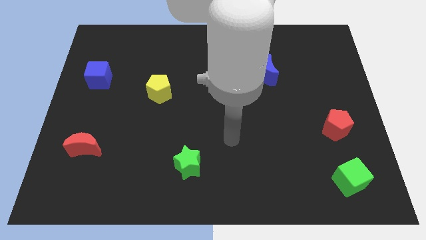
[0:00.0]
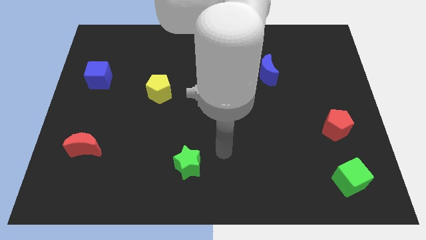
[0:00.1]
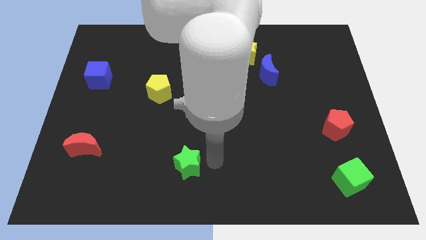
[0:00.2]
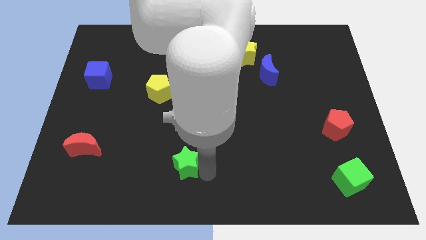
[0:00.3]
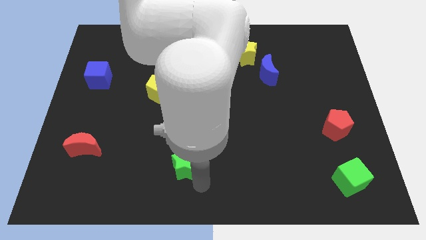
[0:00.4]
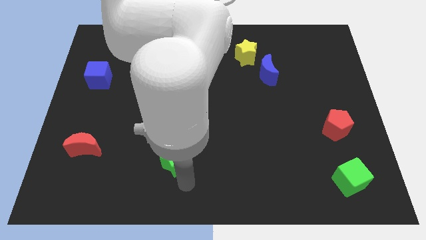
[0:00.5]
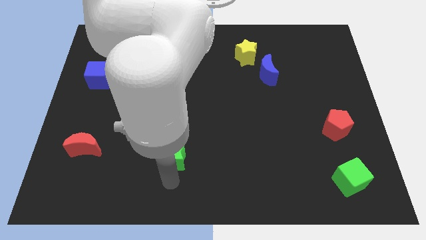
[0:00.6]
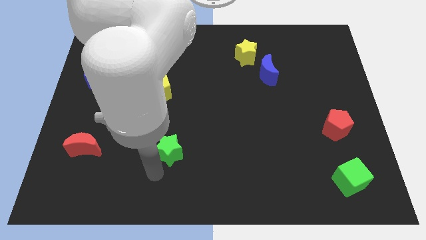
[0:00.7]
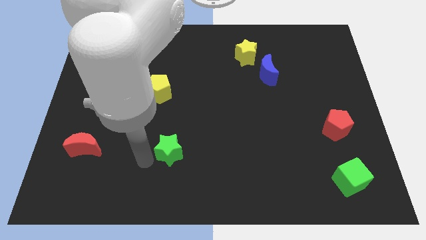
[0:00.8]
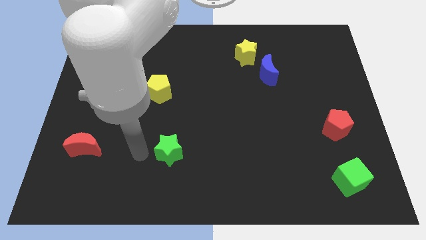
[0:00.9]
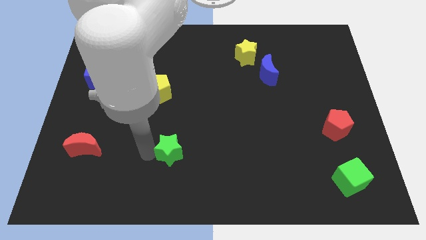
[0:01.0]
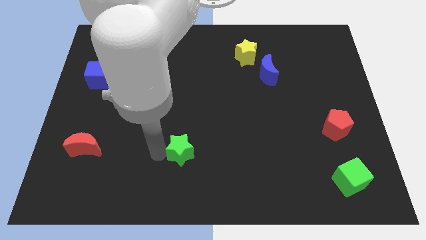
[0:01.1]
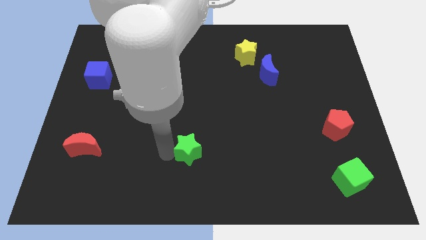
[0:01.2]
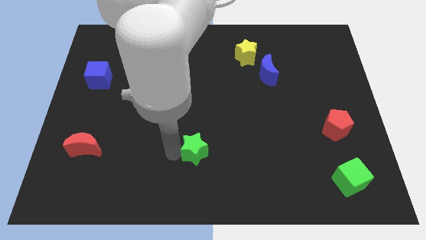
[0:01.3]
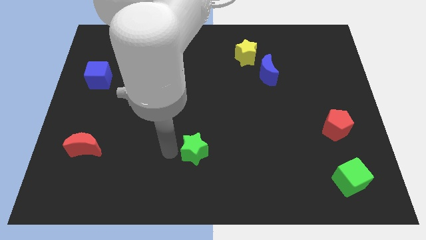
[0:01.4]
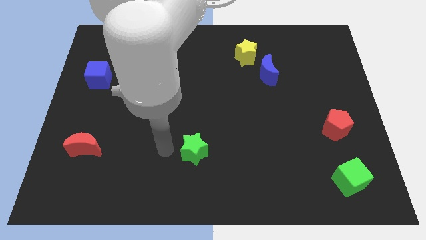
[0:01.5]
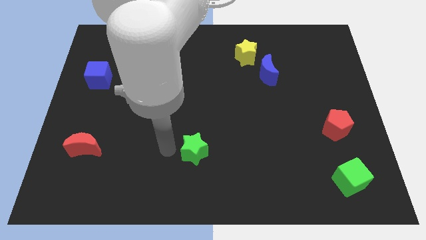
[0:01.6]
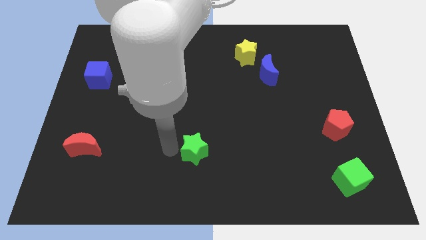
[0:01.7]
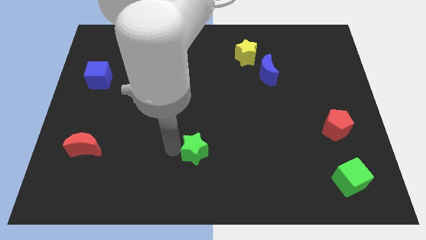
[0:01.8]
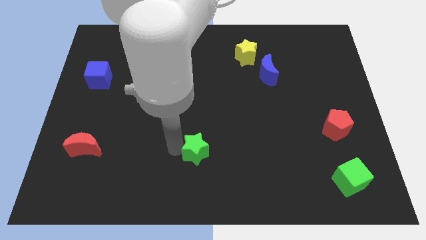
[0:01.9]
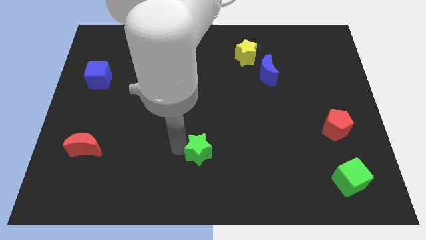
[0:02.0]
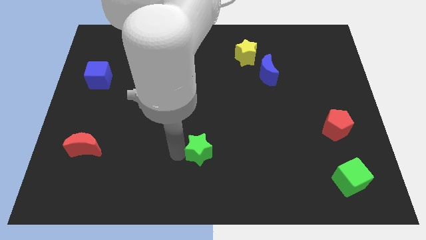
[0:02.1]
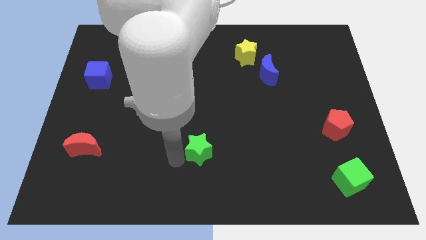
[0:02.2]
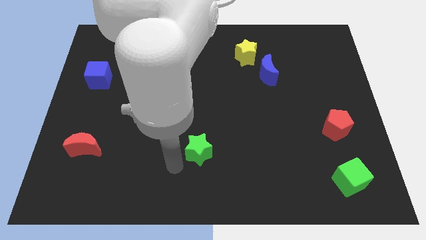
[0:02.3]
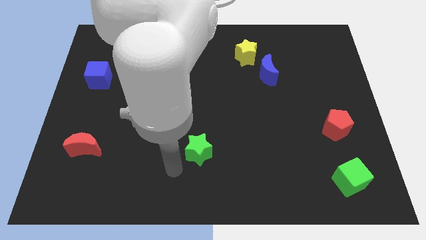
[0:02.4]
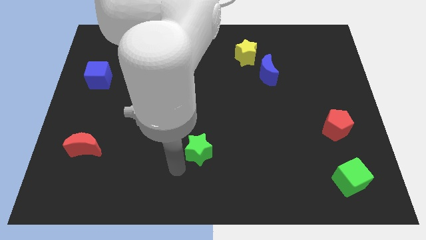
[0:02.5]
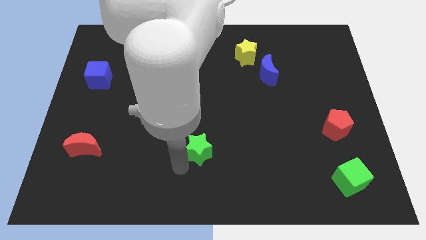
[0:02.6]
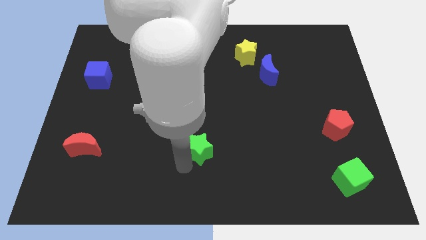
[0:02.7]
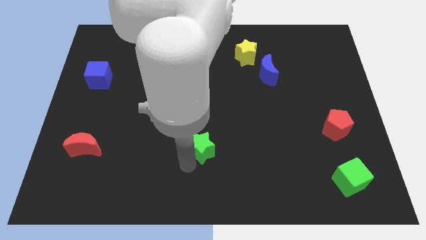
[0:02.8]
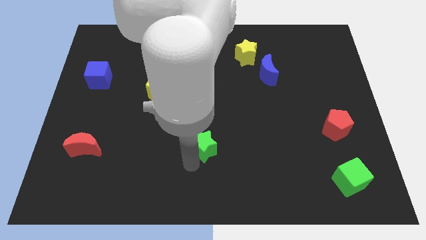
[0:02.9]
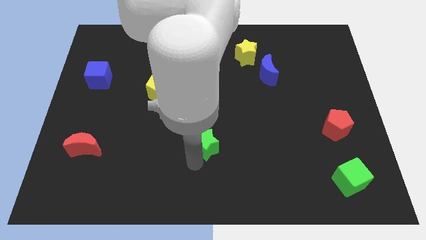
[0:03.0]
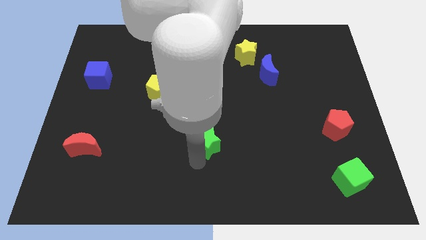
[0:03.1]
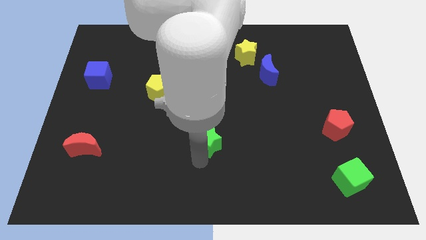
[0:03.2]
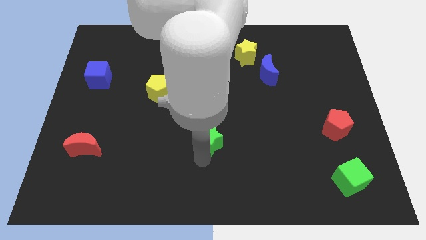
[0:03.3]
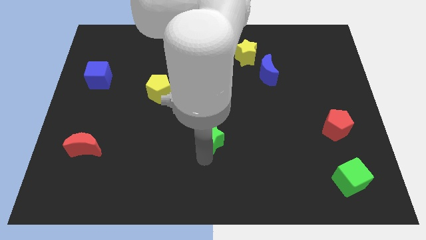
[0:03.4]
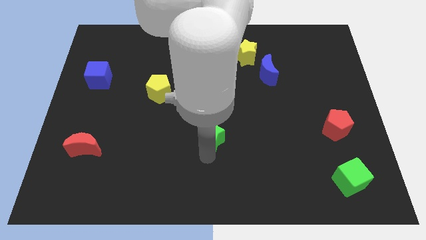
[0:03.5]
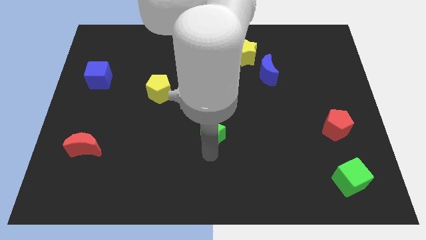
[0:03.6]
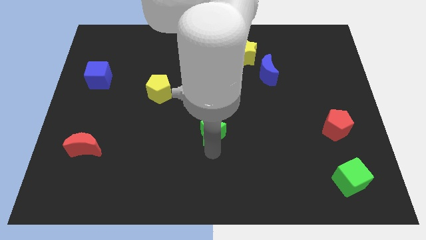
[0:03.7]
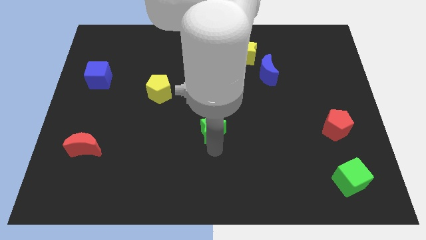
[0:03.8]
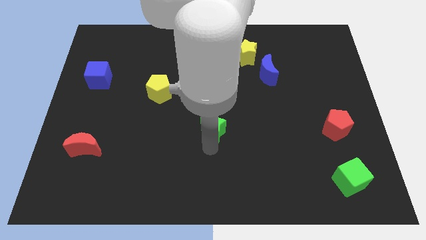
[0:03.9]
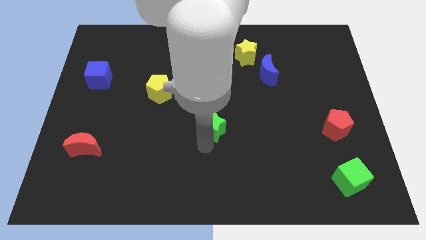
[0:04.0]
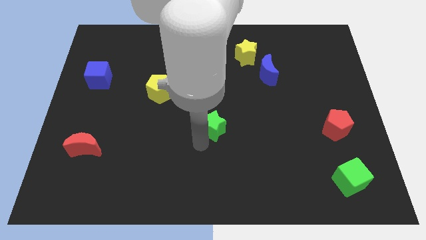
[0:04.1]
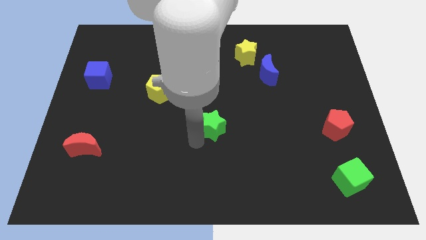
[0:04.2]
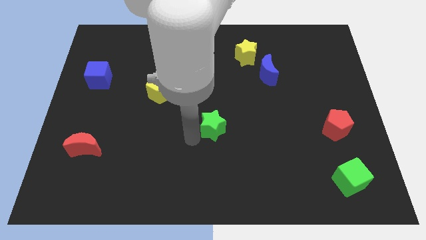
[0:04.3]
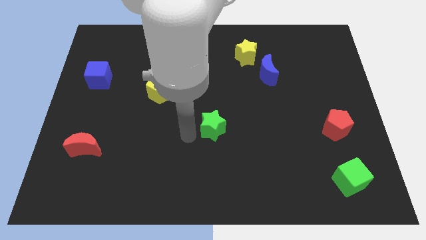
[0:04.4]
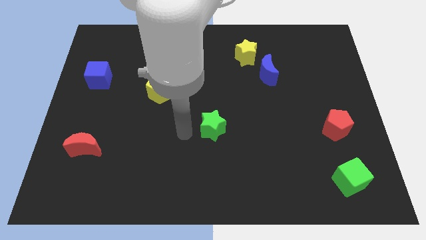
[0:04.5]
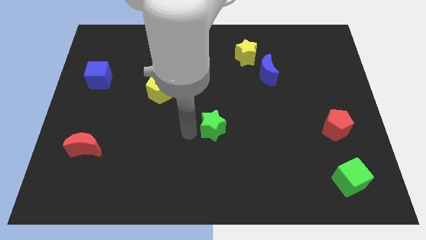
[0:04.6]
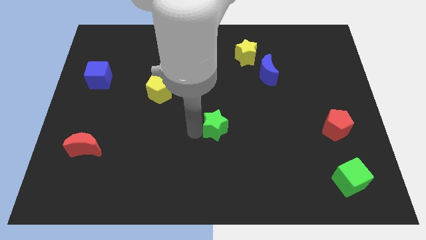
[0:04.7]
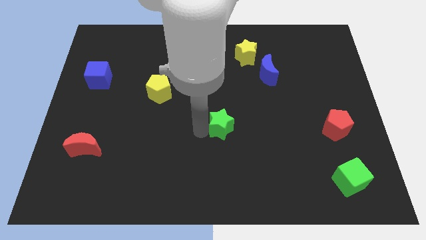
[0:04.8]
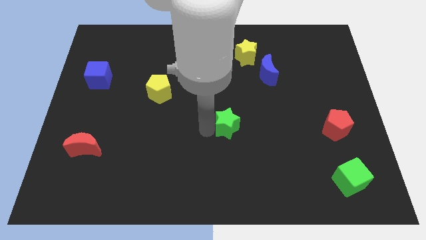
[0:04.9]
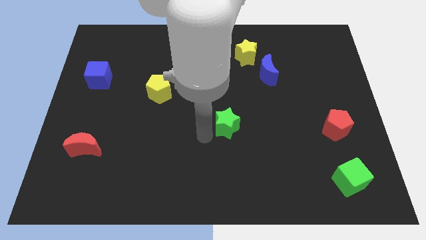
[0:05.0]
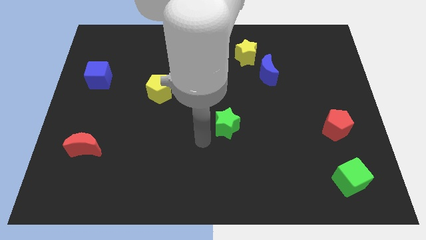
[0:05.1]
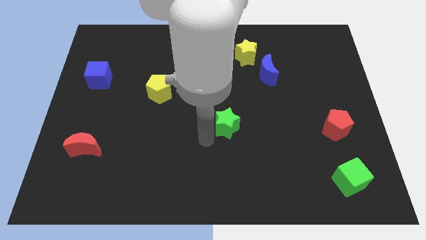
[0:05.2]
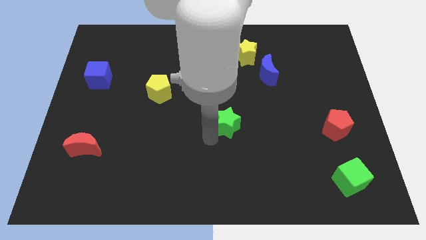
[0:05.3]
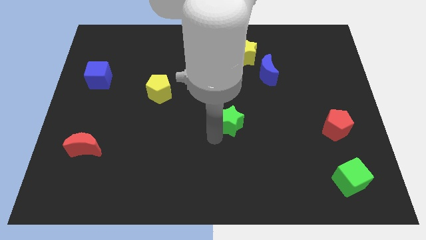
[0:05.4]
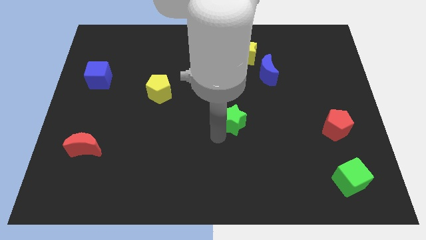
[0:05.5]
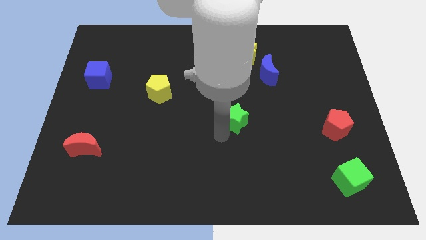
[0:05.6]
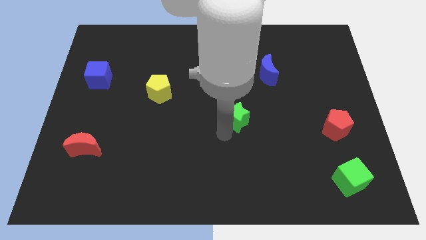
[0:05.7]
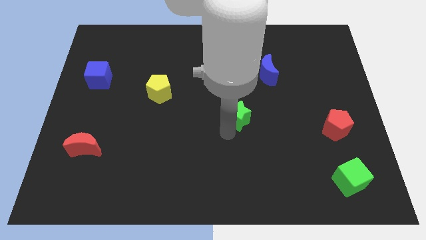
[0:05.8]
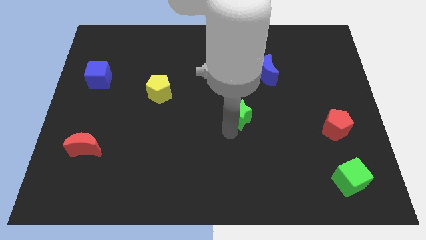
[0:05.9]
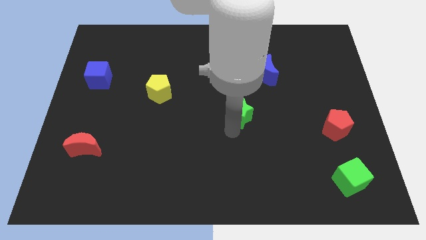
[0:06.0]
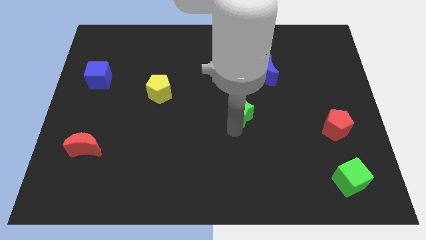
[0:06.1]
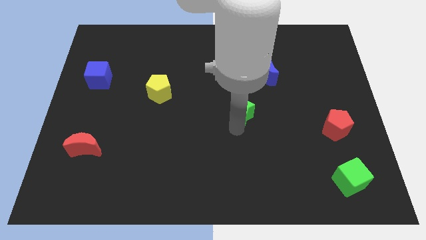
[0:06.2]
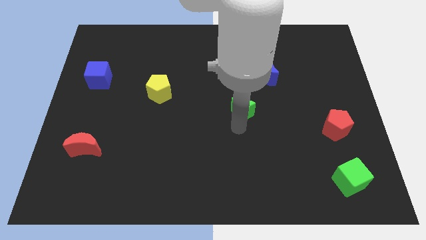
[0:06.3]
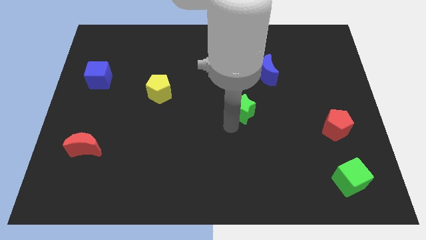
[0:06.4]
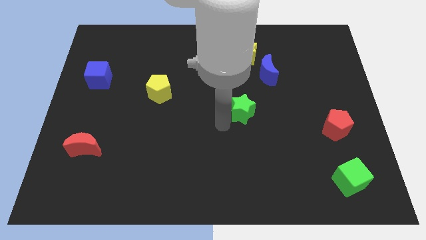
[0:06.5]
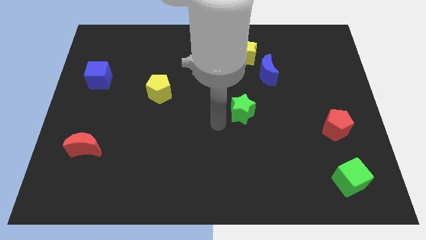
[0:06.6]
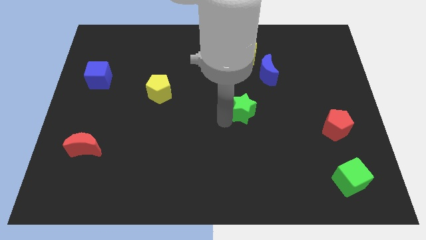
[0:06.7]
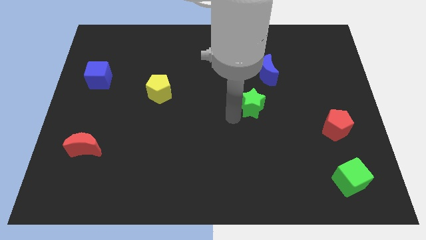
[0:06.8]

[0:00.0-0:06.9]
slide the green star up and then right

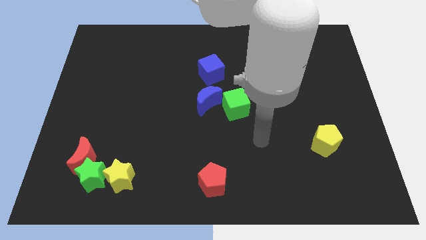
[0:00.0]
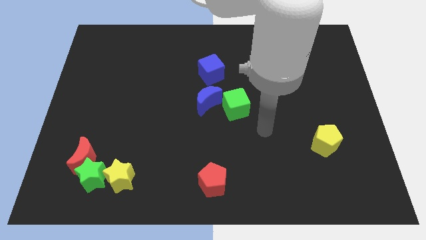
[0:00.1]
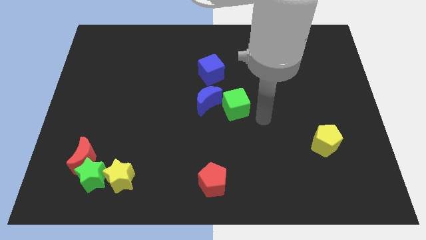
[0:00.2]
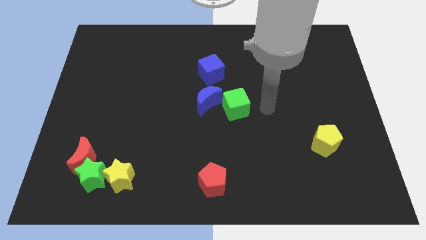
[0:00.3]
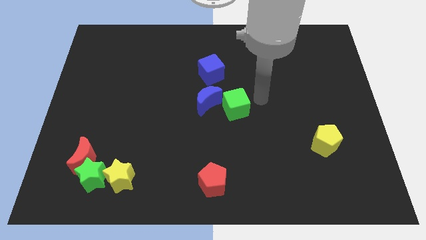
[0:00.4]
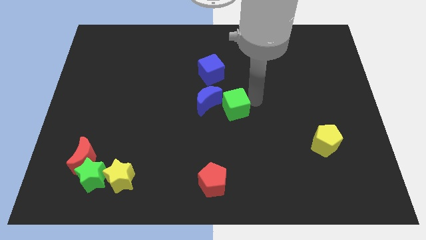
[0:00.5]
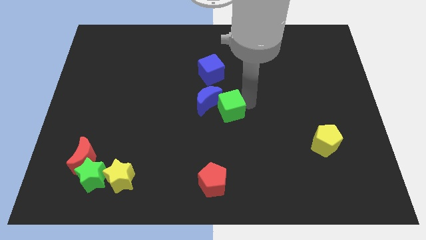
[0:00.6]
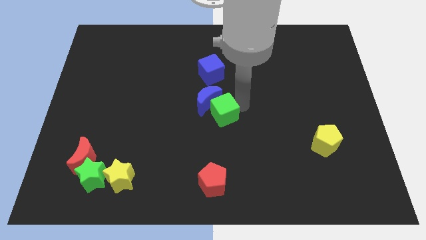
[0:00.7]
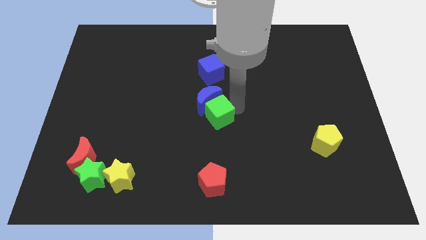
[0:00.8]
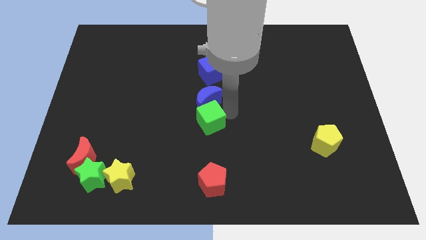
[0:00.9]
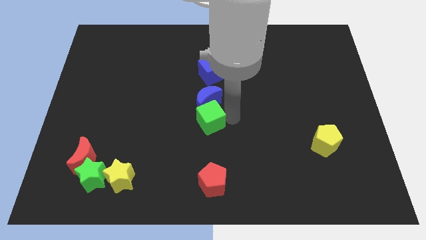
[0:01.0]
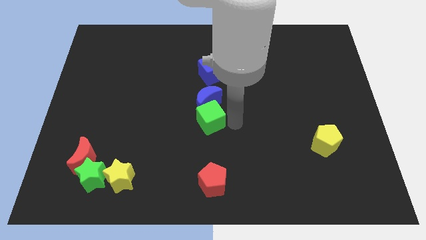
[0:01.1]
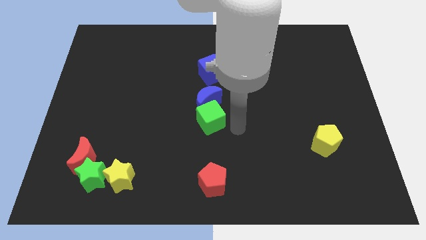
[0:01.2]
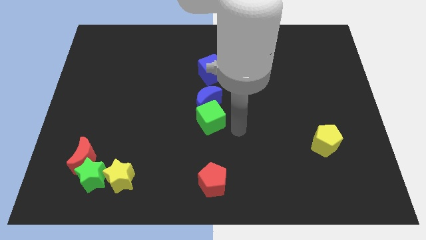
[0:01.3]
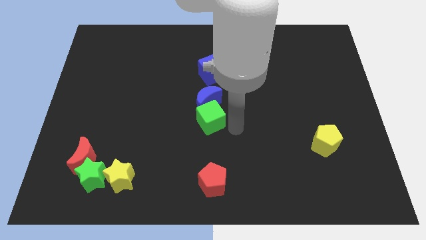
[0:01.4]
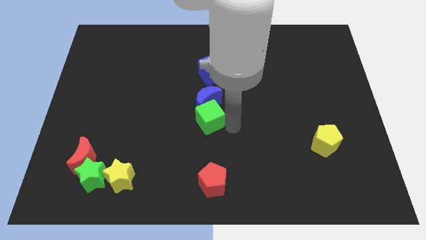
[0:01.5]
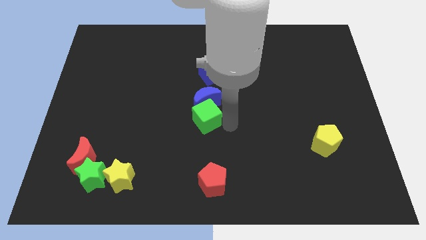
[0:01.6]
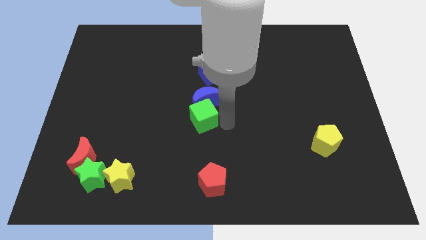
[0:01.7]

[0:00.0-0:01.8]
slightly slide the green cube to the left
